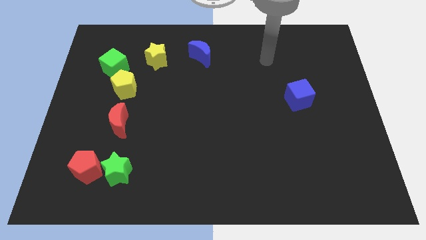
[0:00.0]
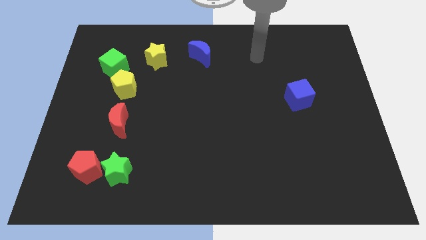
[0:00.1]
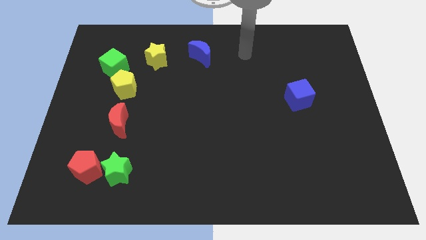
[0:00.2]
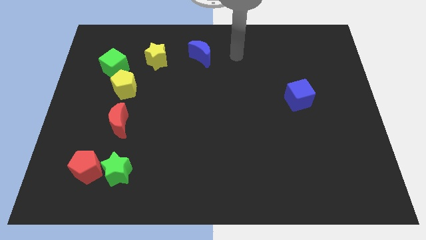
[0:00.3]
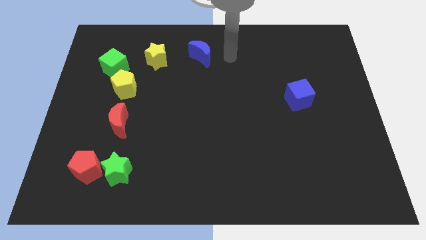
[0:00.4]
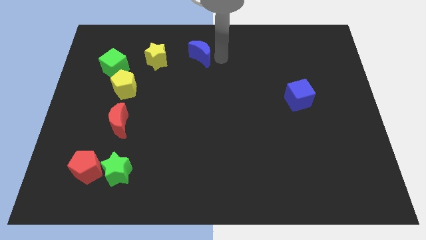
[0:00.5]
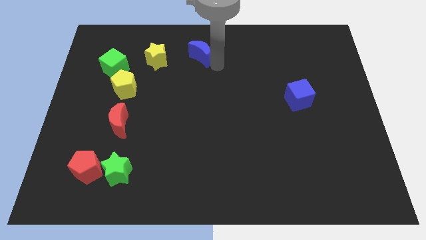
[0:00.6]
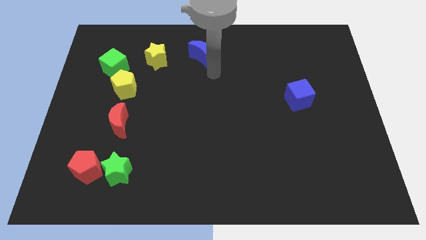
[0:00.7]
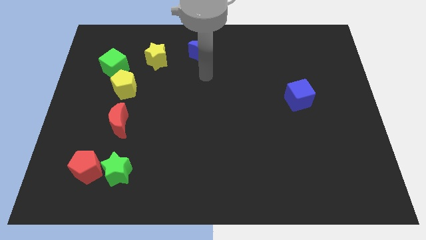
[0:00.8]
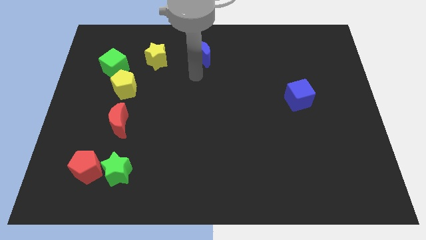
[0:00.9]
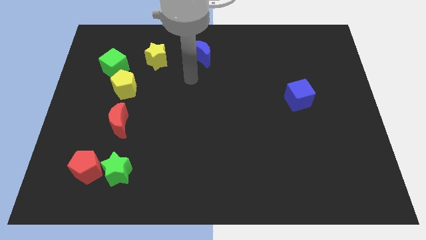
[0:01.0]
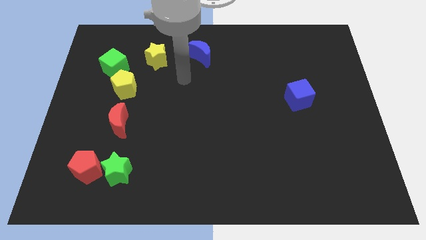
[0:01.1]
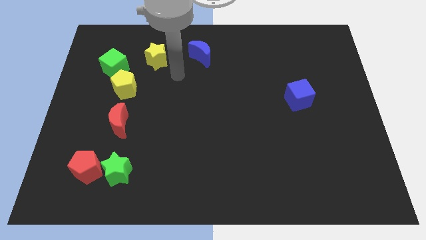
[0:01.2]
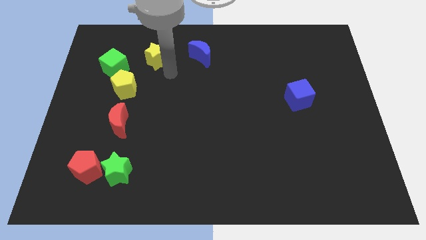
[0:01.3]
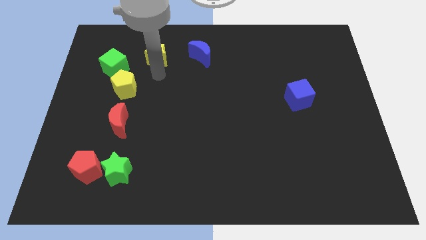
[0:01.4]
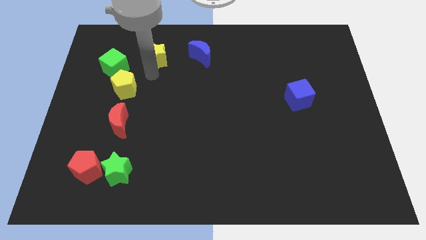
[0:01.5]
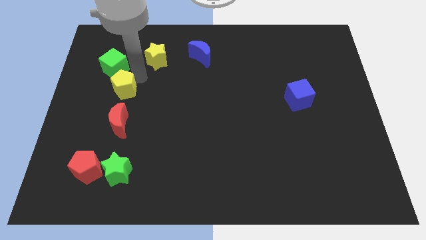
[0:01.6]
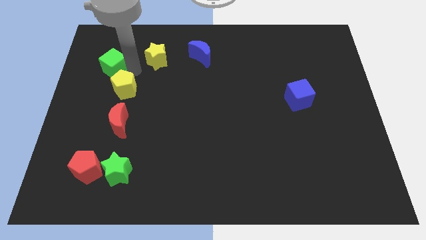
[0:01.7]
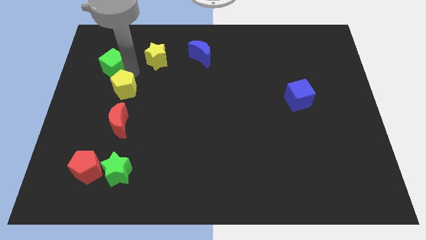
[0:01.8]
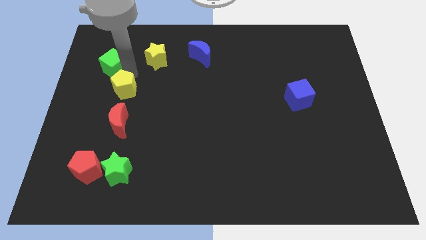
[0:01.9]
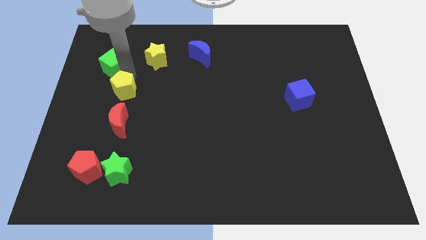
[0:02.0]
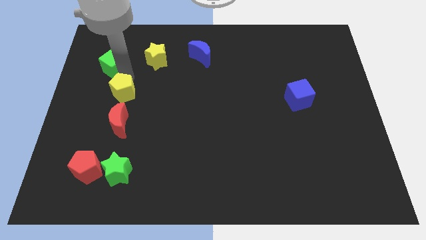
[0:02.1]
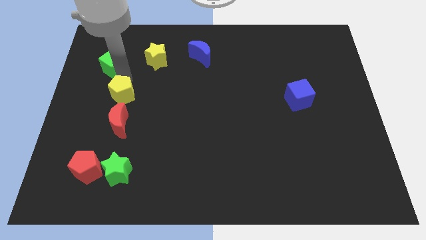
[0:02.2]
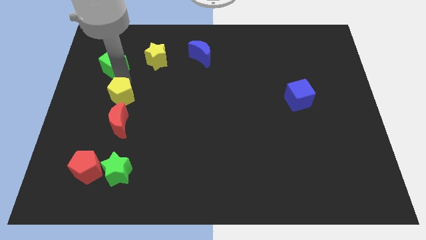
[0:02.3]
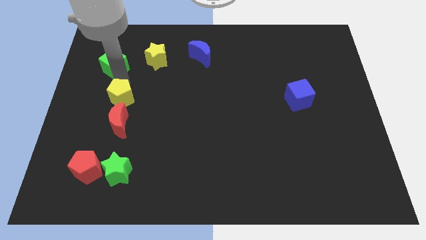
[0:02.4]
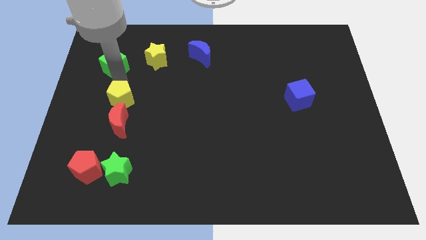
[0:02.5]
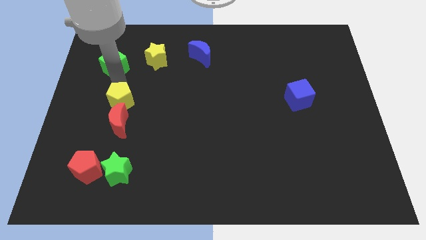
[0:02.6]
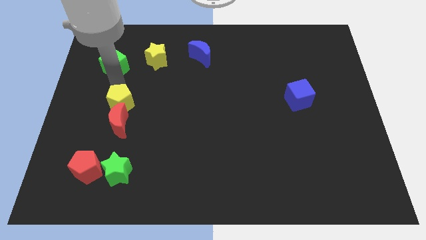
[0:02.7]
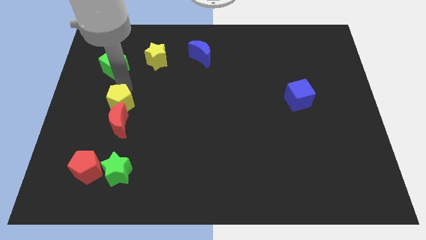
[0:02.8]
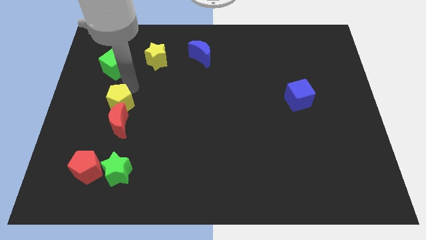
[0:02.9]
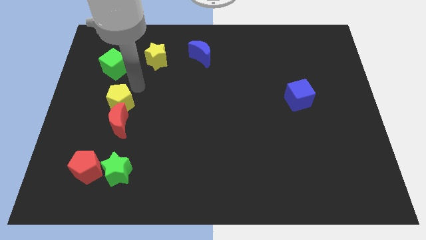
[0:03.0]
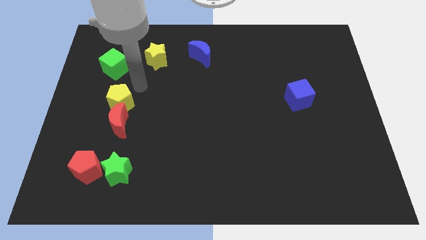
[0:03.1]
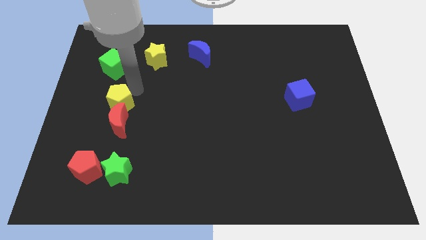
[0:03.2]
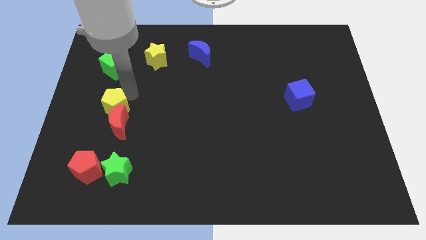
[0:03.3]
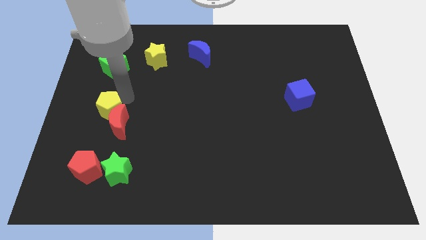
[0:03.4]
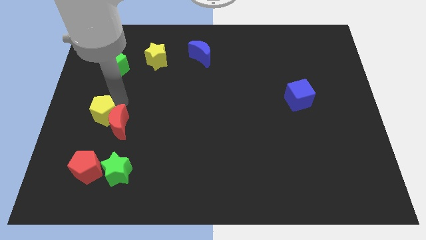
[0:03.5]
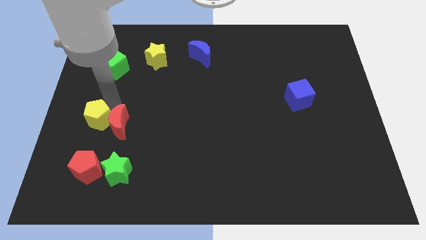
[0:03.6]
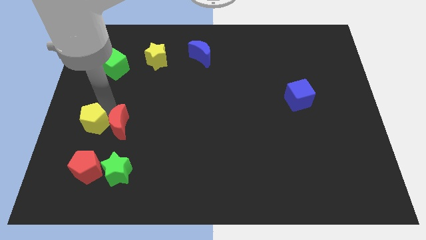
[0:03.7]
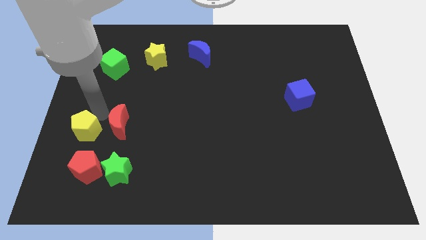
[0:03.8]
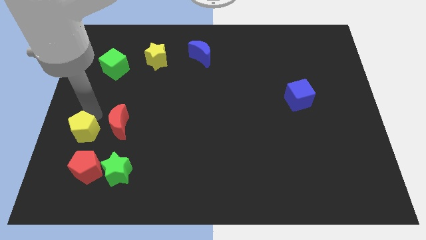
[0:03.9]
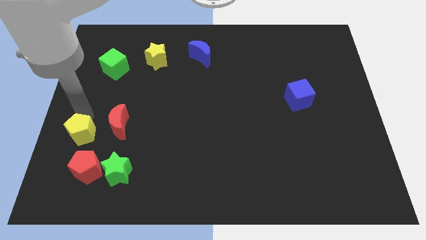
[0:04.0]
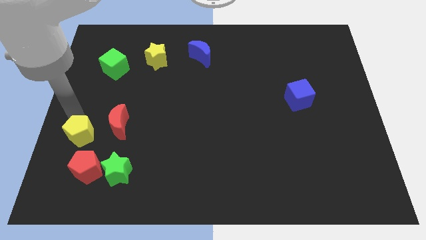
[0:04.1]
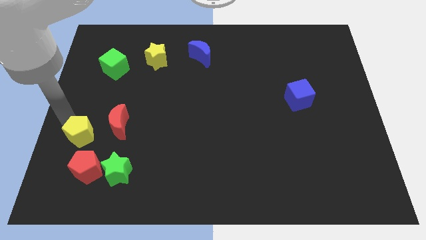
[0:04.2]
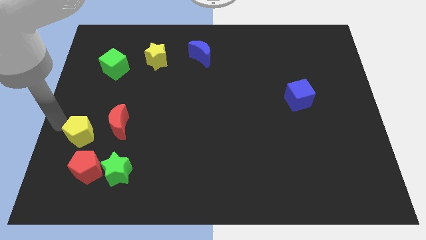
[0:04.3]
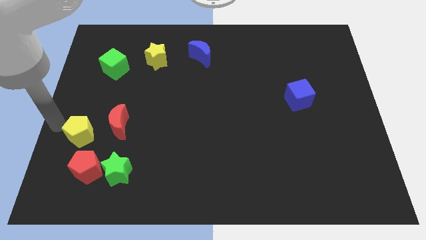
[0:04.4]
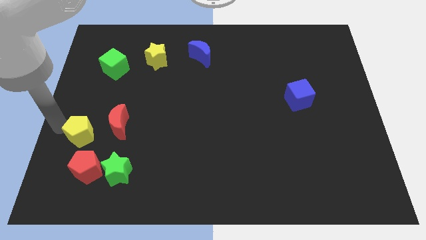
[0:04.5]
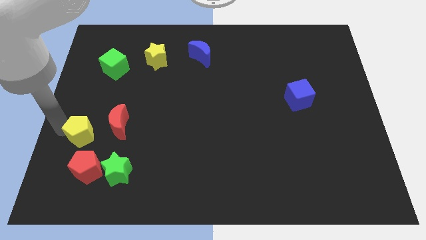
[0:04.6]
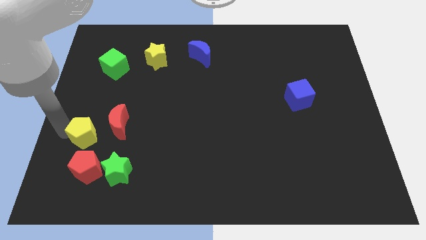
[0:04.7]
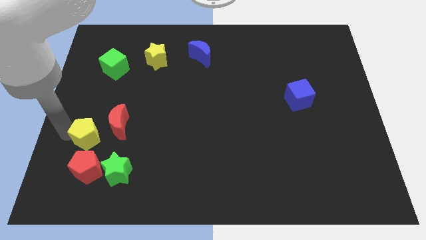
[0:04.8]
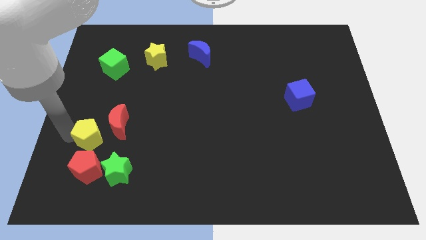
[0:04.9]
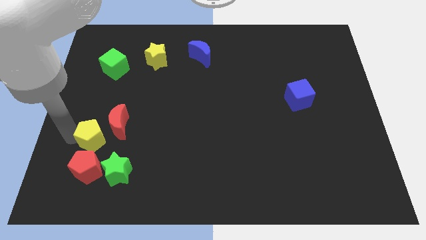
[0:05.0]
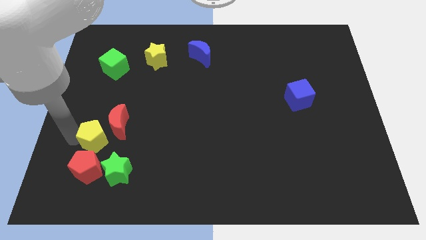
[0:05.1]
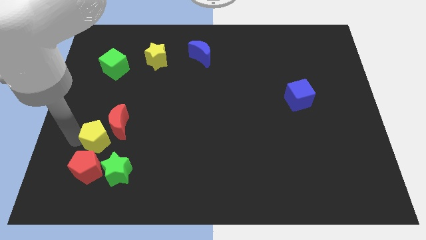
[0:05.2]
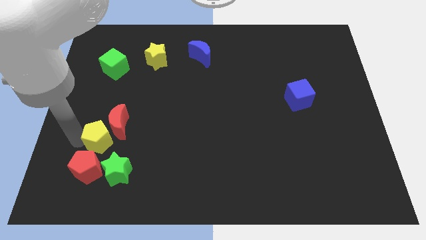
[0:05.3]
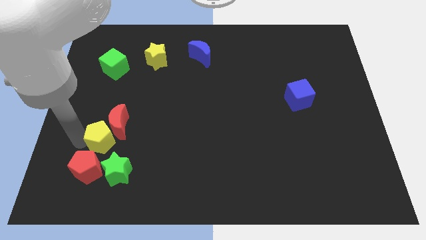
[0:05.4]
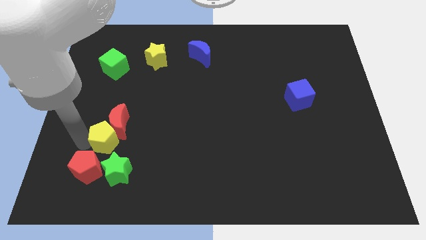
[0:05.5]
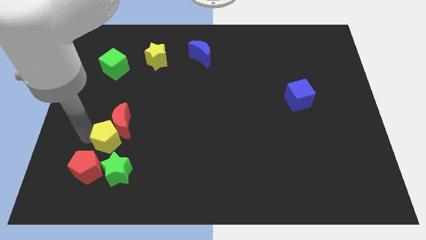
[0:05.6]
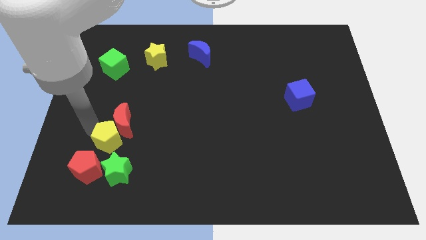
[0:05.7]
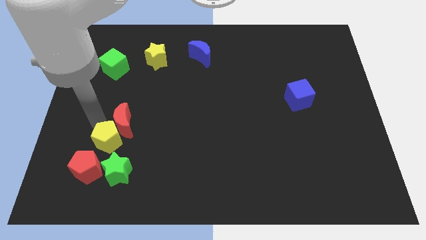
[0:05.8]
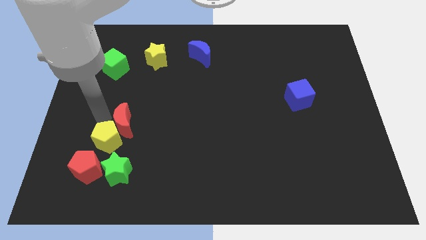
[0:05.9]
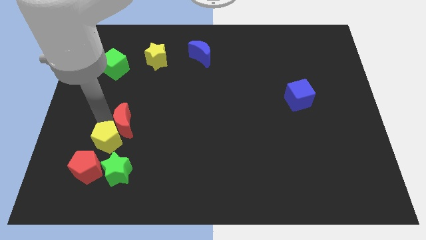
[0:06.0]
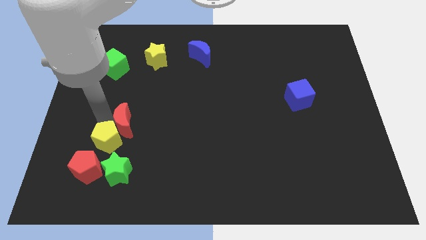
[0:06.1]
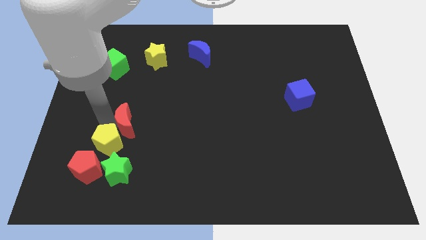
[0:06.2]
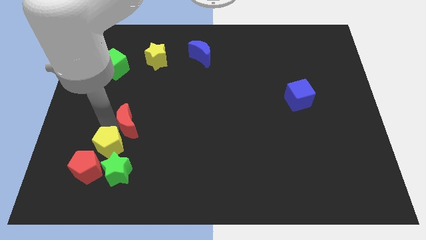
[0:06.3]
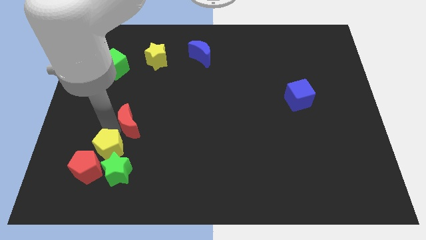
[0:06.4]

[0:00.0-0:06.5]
put the yellow pentagon close to the green star

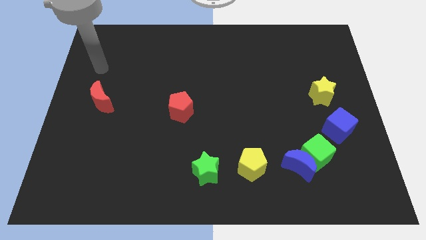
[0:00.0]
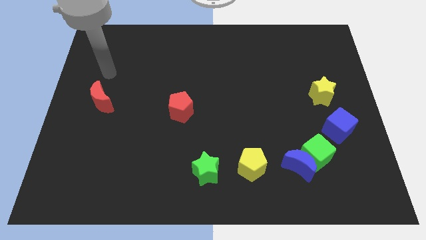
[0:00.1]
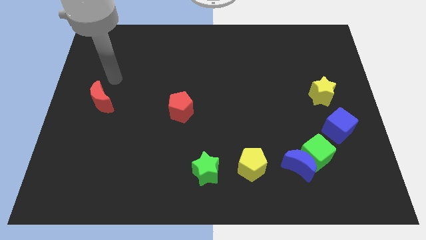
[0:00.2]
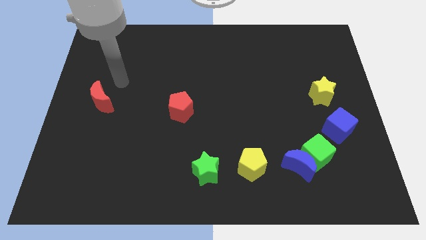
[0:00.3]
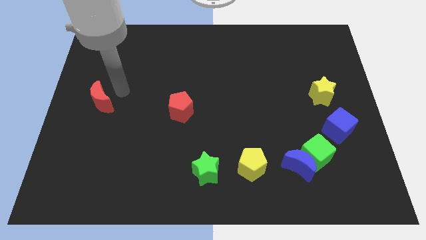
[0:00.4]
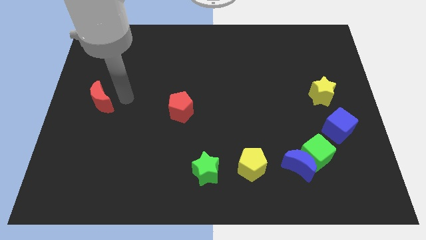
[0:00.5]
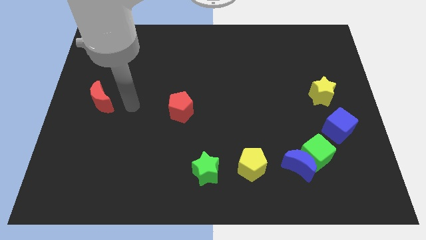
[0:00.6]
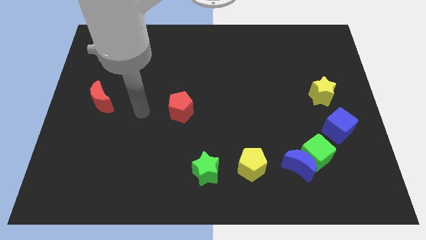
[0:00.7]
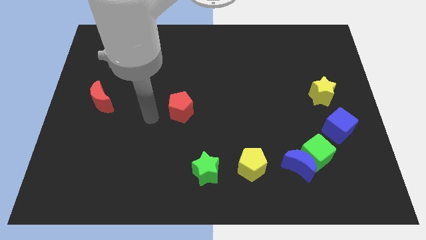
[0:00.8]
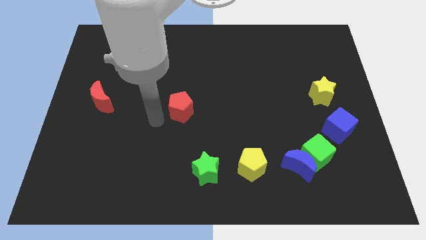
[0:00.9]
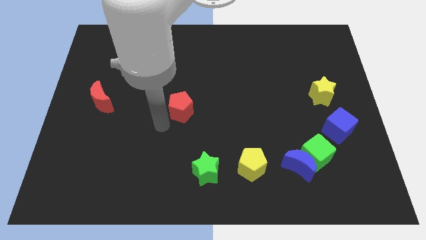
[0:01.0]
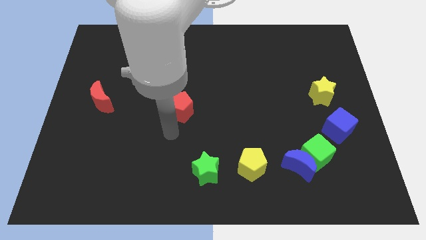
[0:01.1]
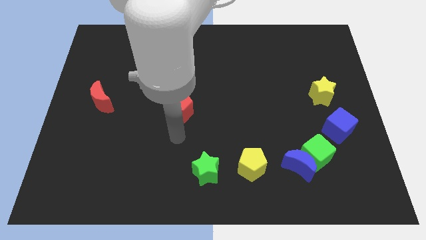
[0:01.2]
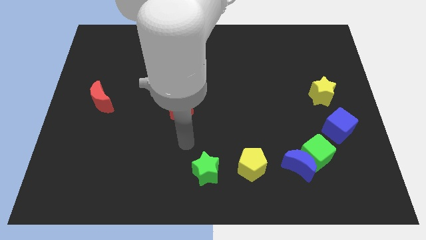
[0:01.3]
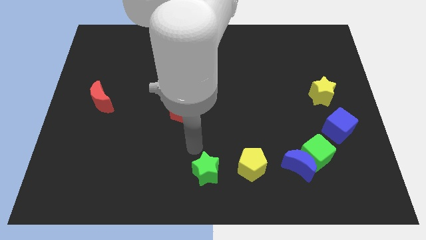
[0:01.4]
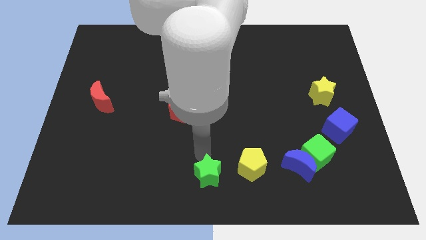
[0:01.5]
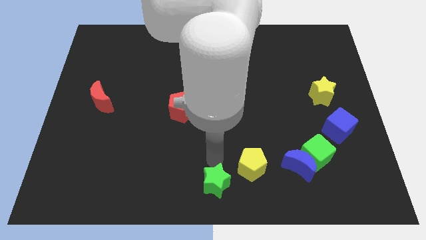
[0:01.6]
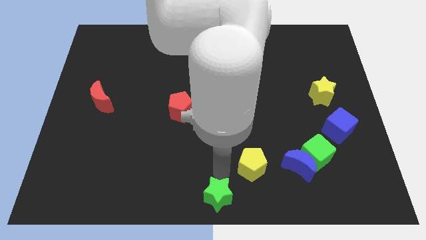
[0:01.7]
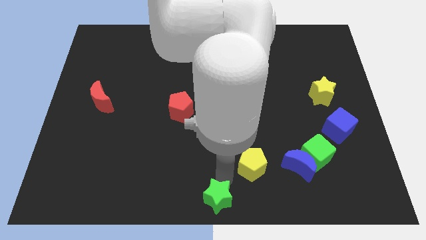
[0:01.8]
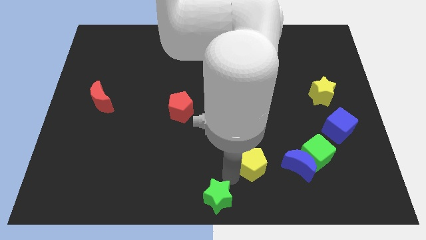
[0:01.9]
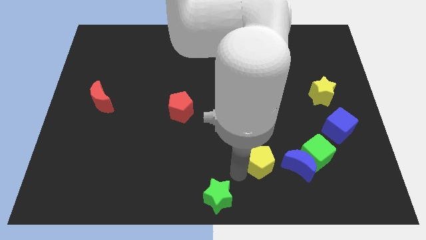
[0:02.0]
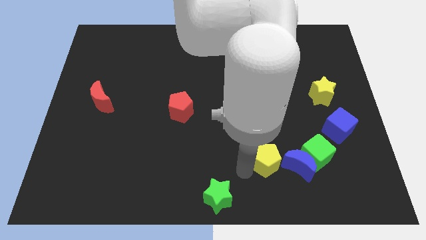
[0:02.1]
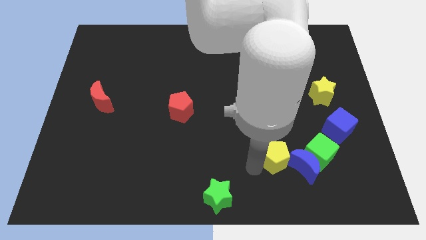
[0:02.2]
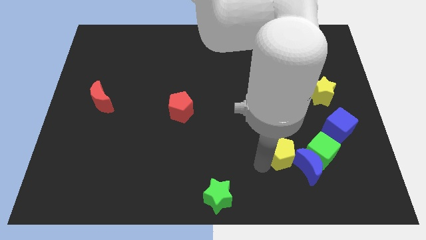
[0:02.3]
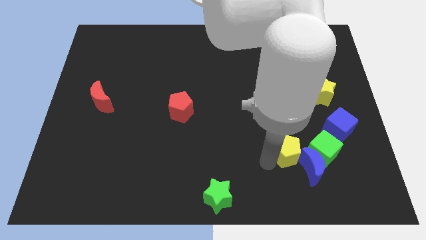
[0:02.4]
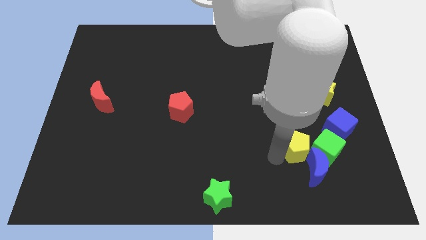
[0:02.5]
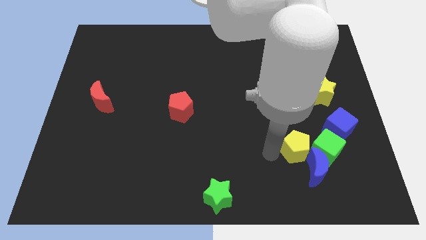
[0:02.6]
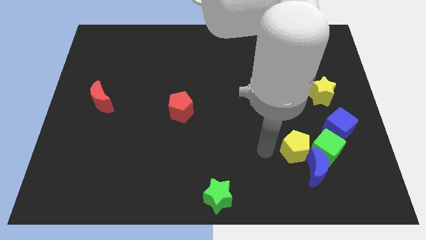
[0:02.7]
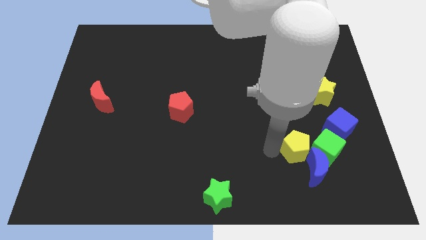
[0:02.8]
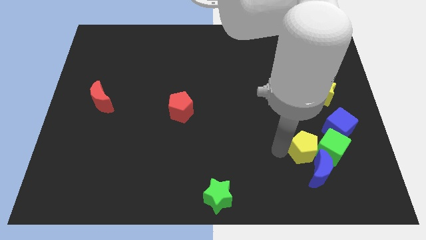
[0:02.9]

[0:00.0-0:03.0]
put the yellow pentagon to the green cube
